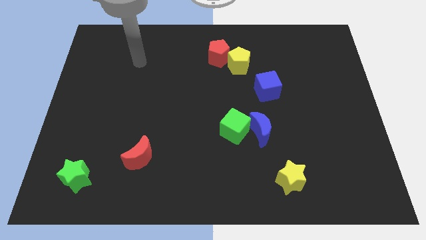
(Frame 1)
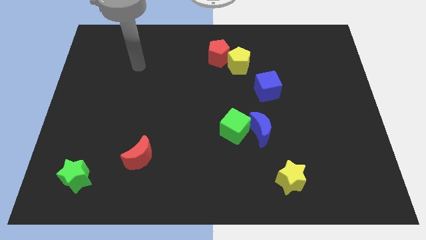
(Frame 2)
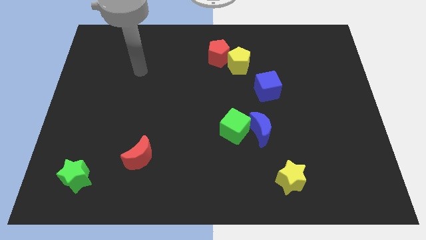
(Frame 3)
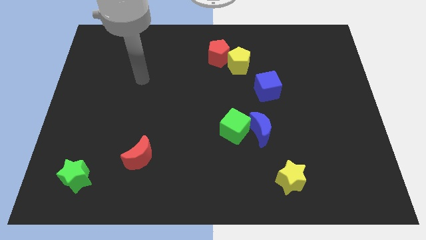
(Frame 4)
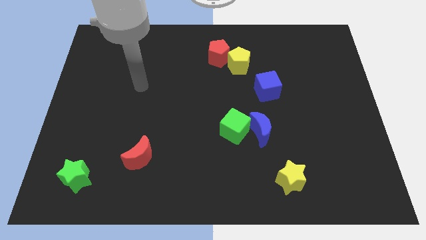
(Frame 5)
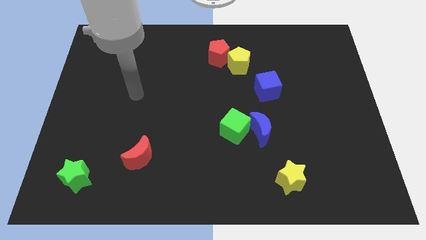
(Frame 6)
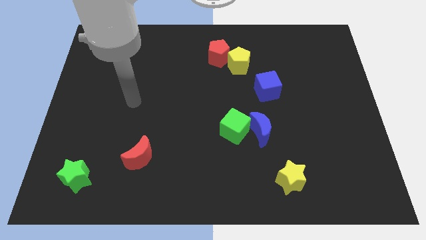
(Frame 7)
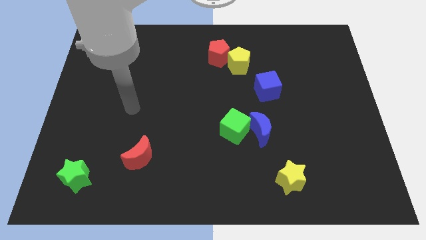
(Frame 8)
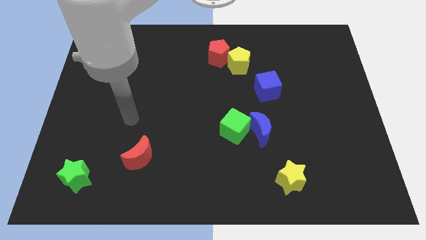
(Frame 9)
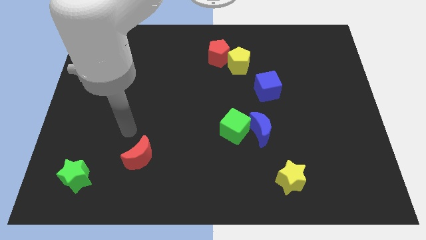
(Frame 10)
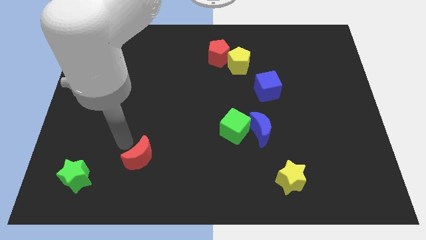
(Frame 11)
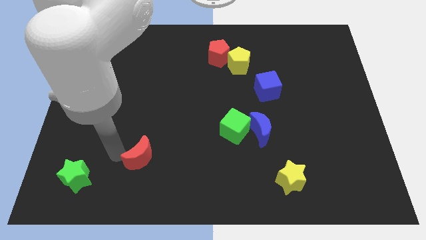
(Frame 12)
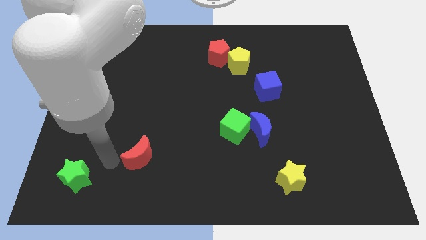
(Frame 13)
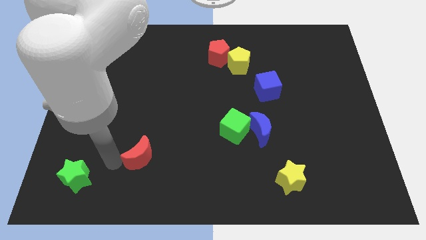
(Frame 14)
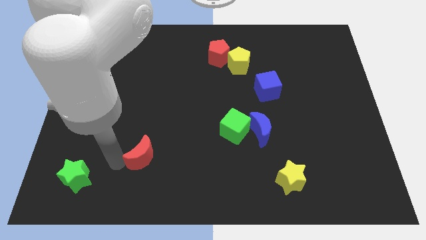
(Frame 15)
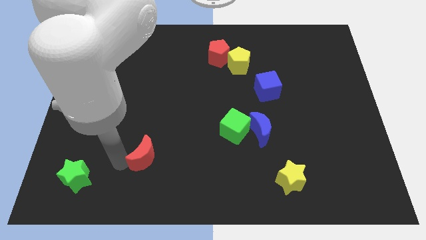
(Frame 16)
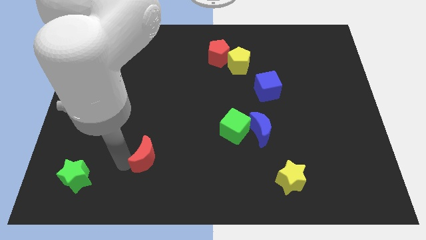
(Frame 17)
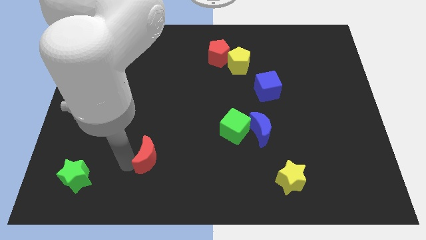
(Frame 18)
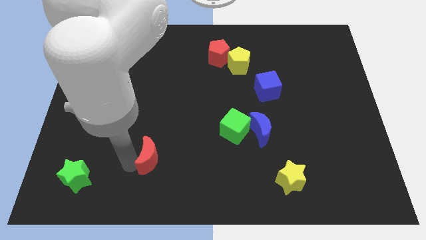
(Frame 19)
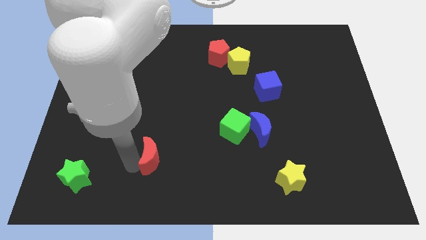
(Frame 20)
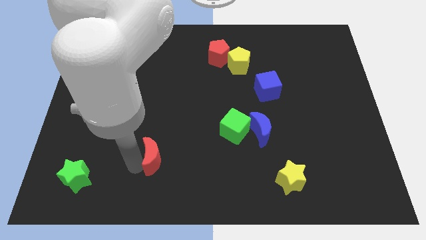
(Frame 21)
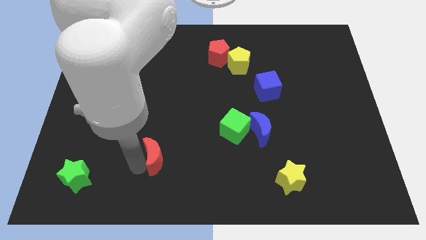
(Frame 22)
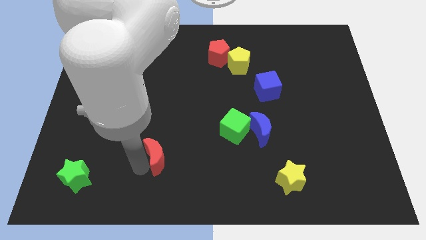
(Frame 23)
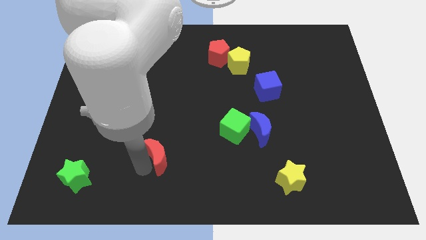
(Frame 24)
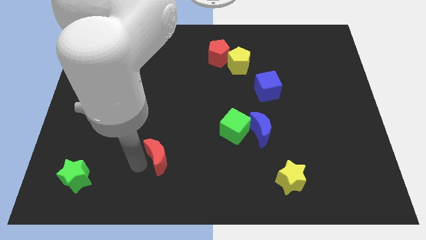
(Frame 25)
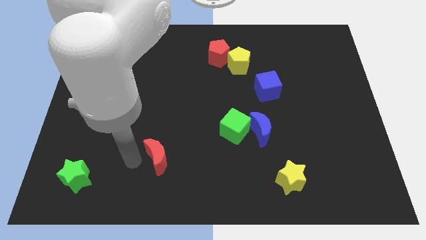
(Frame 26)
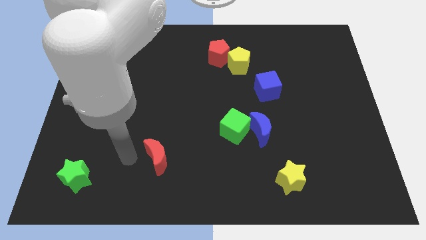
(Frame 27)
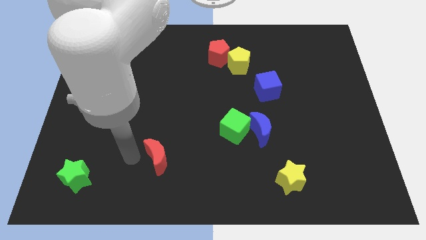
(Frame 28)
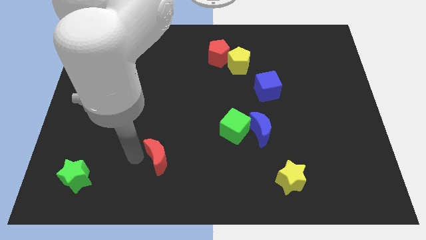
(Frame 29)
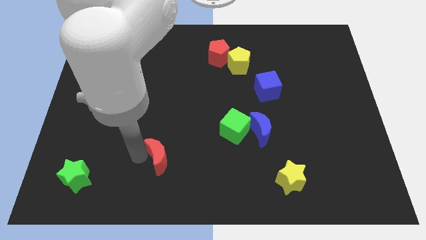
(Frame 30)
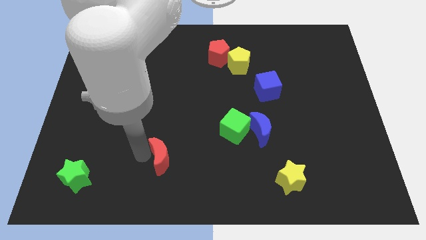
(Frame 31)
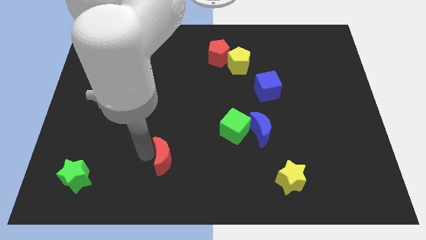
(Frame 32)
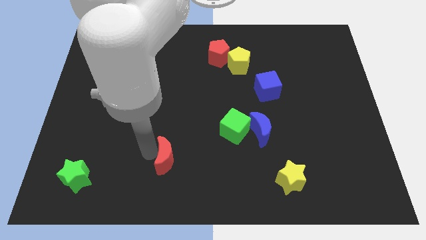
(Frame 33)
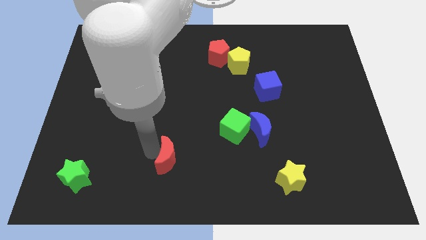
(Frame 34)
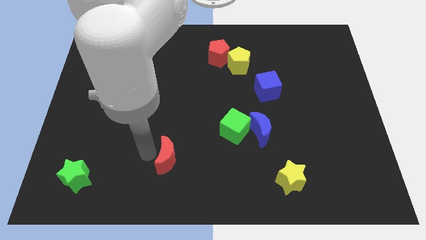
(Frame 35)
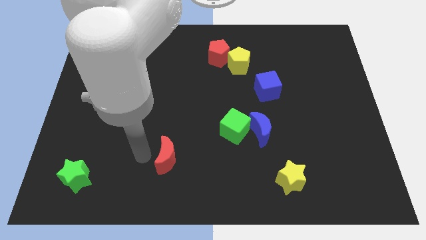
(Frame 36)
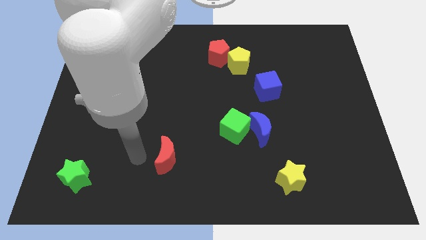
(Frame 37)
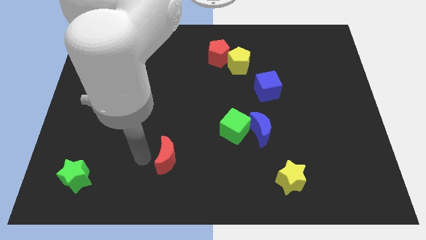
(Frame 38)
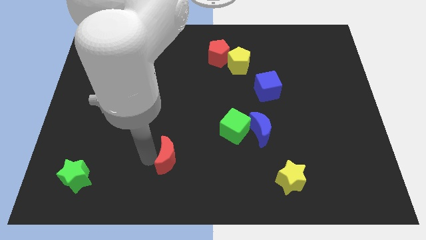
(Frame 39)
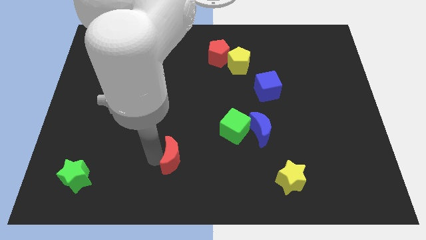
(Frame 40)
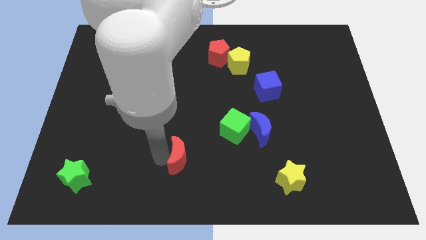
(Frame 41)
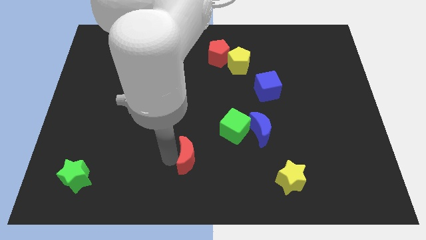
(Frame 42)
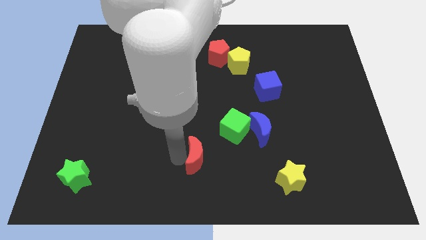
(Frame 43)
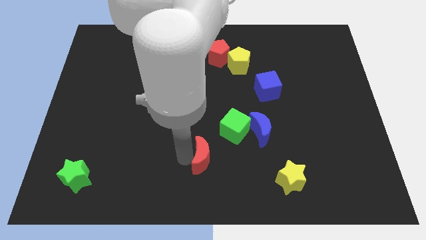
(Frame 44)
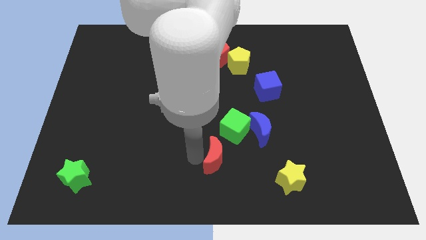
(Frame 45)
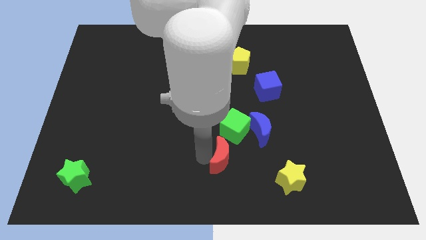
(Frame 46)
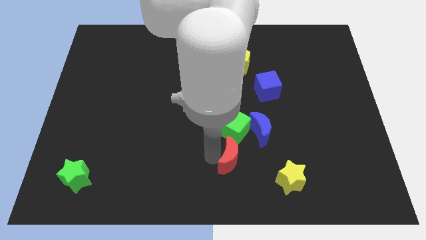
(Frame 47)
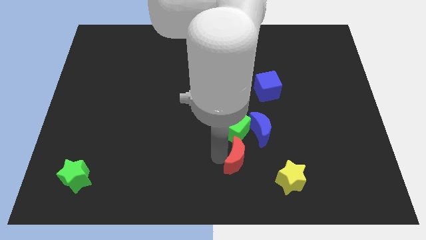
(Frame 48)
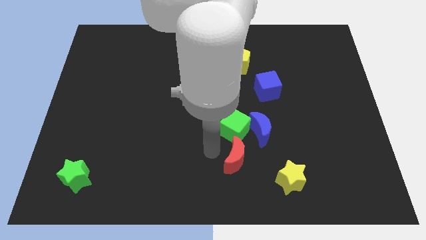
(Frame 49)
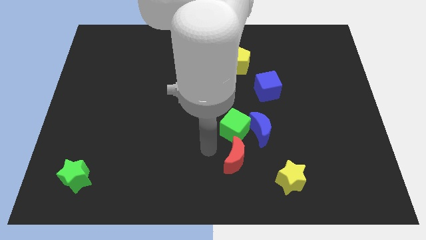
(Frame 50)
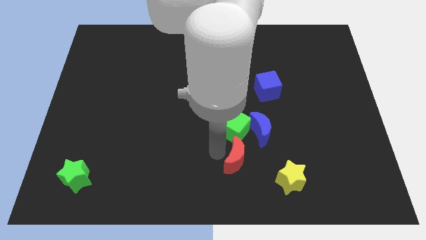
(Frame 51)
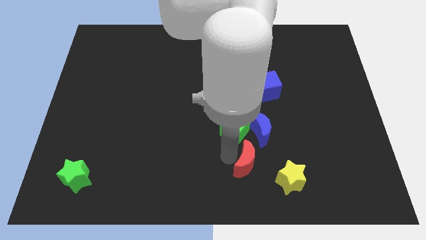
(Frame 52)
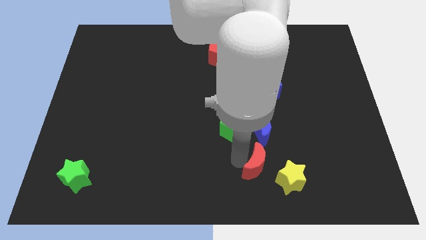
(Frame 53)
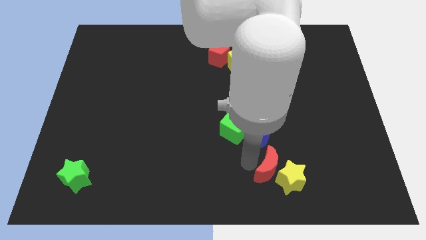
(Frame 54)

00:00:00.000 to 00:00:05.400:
push the red moon towards the yellow star

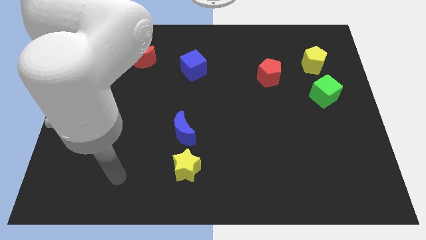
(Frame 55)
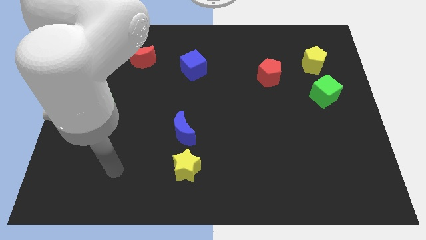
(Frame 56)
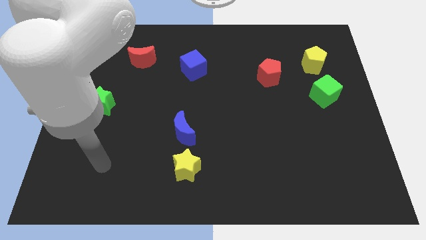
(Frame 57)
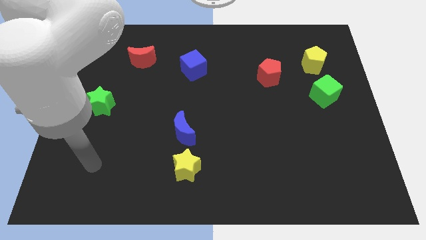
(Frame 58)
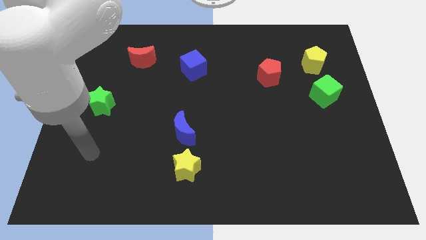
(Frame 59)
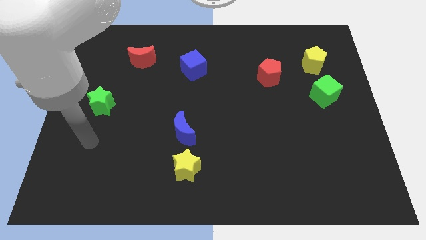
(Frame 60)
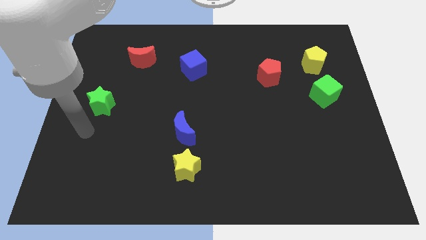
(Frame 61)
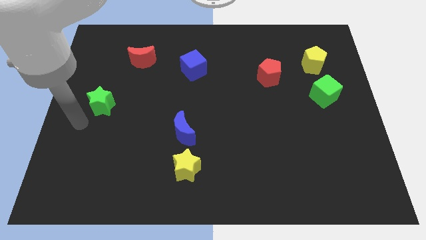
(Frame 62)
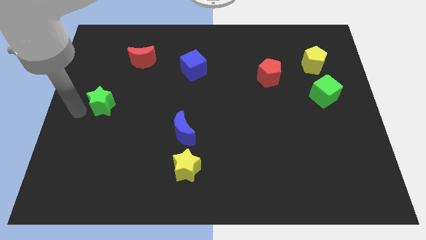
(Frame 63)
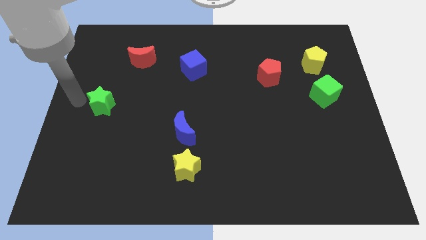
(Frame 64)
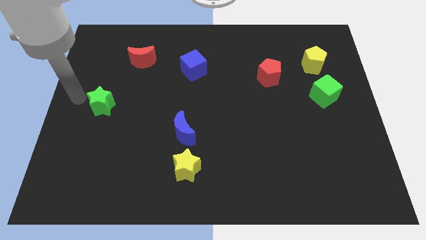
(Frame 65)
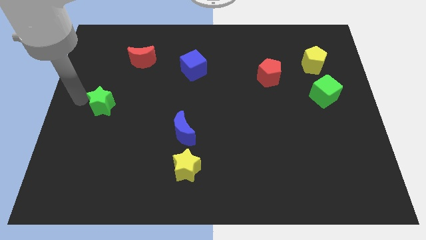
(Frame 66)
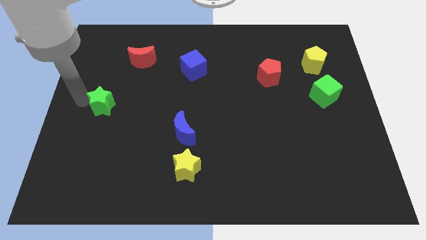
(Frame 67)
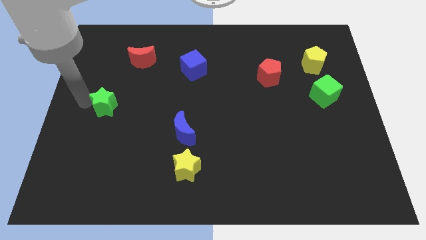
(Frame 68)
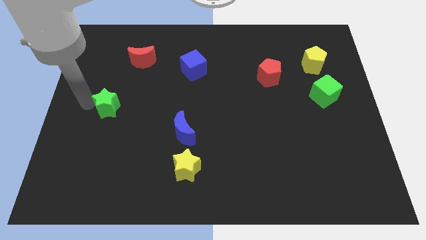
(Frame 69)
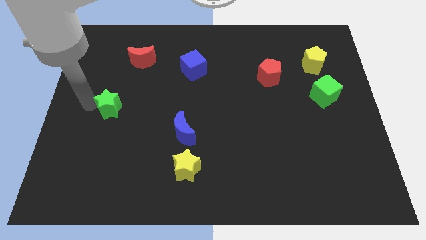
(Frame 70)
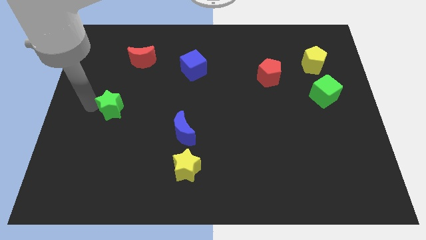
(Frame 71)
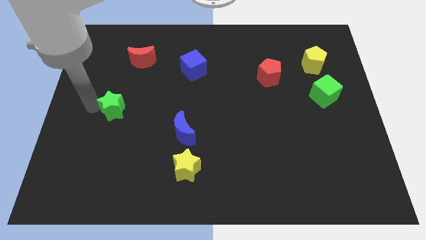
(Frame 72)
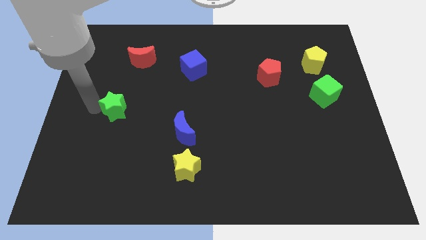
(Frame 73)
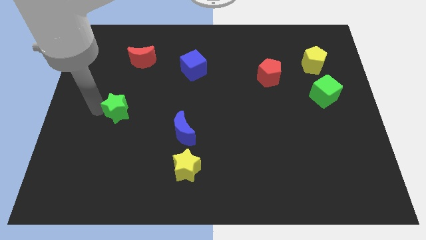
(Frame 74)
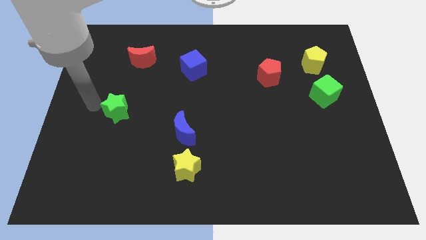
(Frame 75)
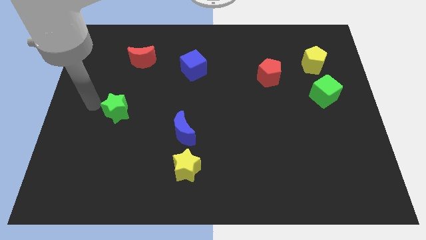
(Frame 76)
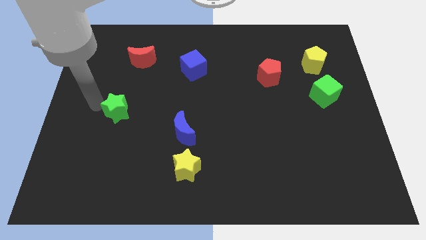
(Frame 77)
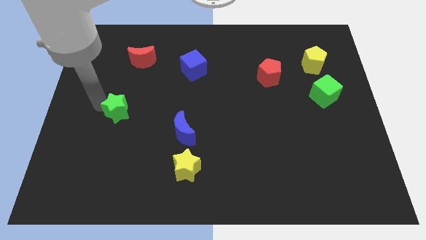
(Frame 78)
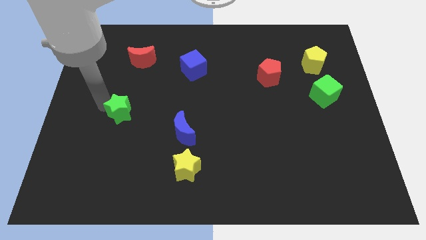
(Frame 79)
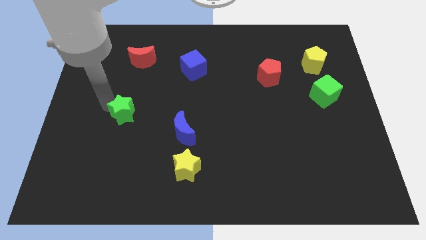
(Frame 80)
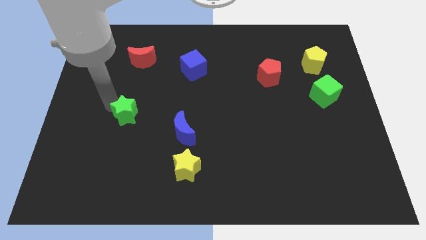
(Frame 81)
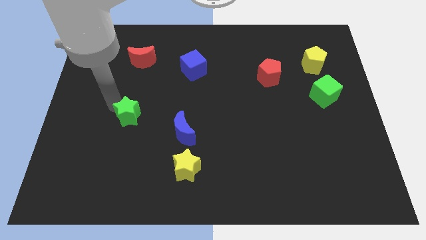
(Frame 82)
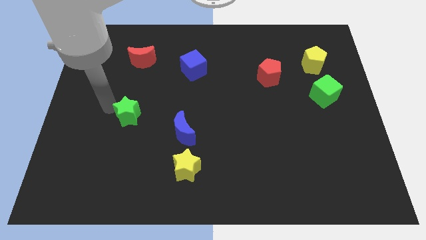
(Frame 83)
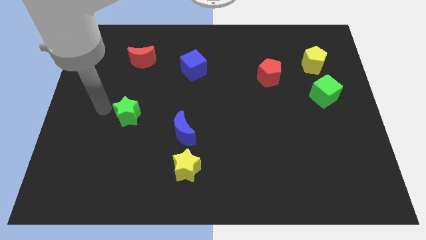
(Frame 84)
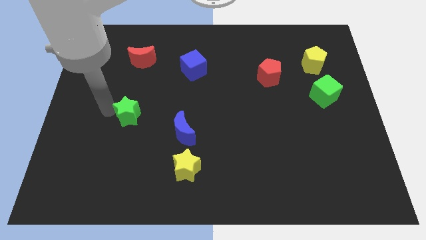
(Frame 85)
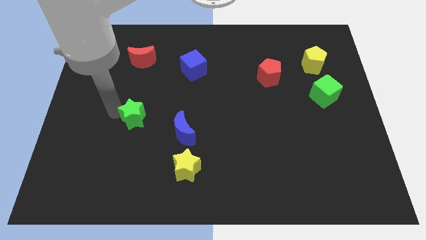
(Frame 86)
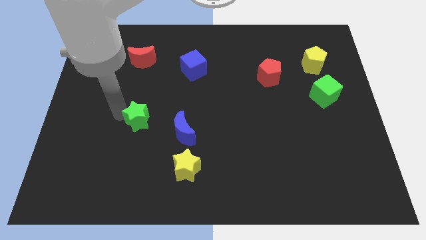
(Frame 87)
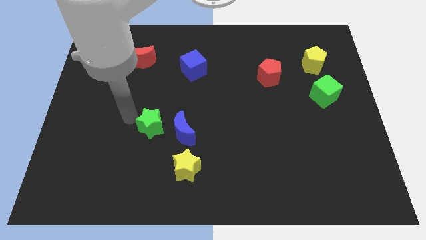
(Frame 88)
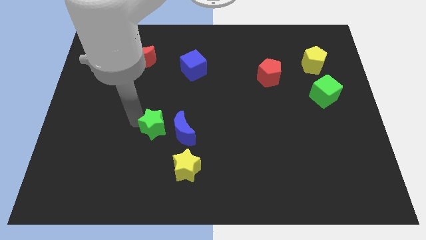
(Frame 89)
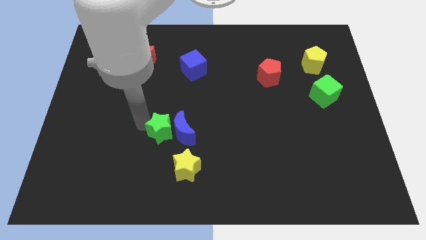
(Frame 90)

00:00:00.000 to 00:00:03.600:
push the green star next to the blue moon
